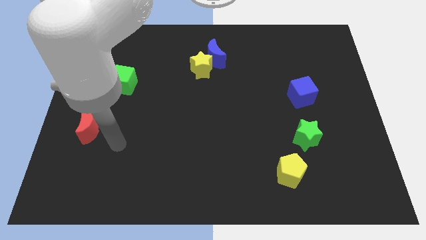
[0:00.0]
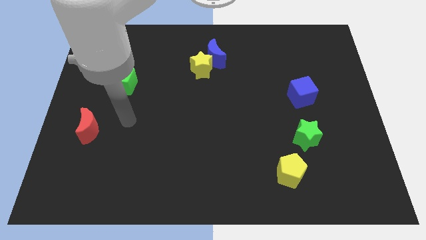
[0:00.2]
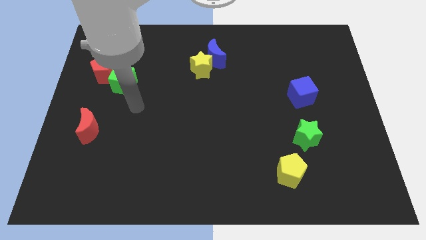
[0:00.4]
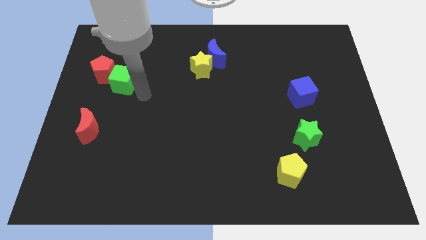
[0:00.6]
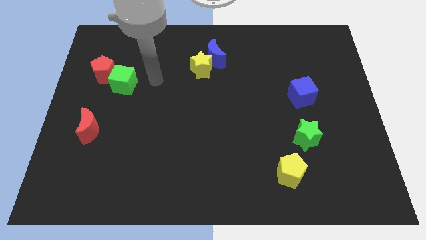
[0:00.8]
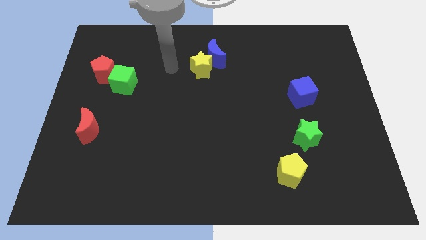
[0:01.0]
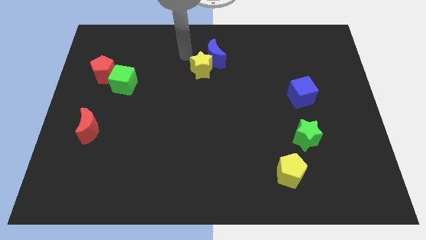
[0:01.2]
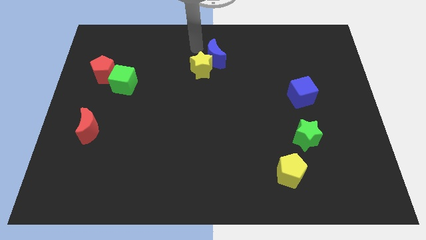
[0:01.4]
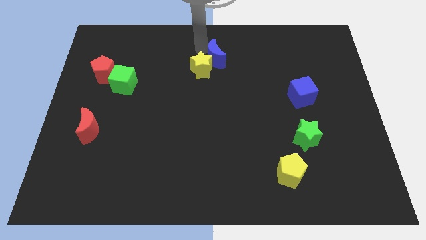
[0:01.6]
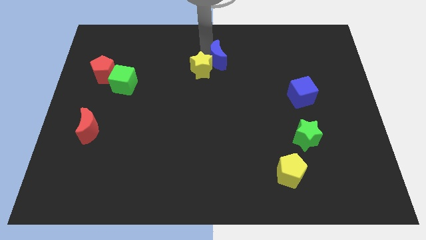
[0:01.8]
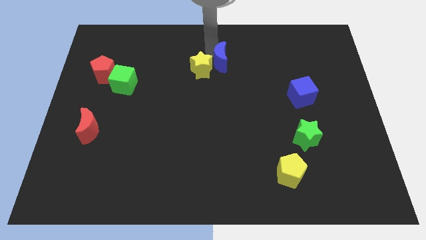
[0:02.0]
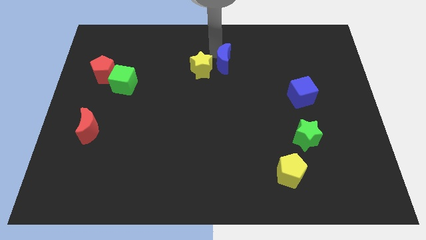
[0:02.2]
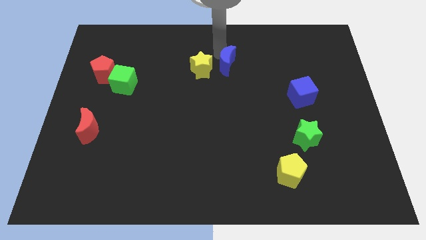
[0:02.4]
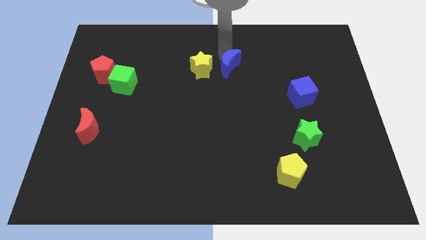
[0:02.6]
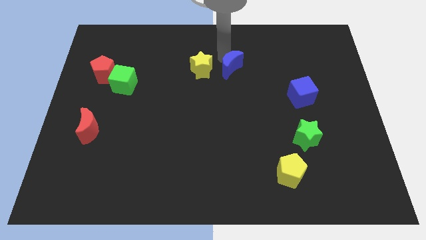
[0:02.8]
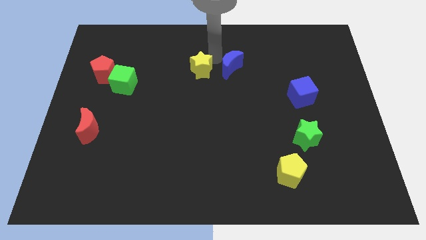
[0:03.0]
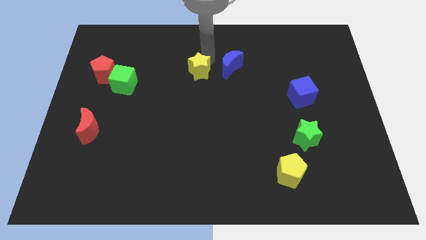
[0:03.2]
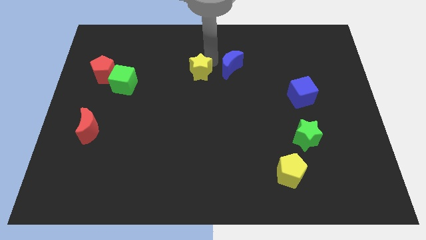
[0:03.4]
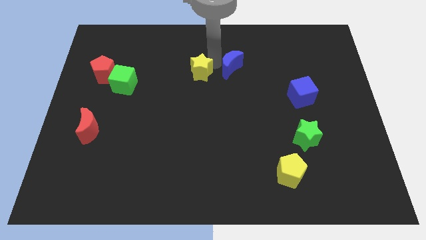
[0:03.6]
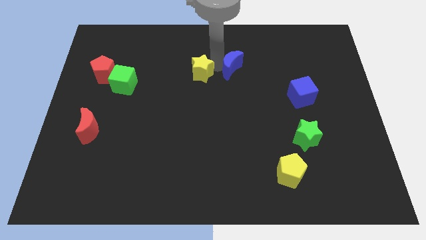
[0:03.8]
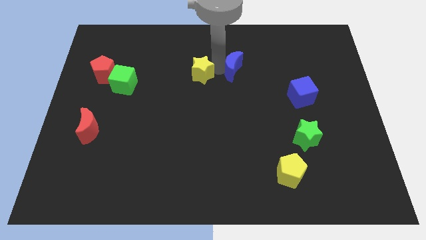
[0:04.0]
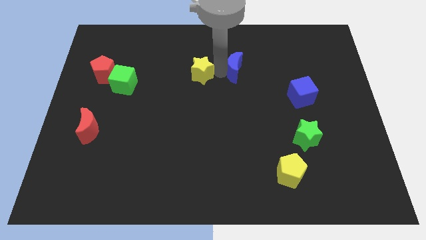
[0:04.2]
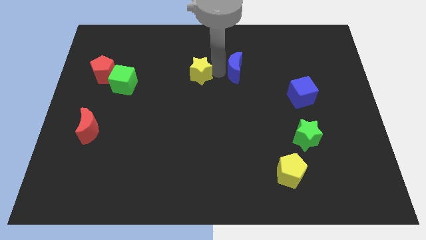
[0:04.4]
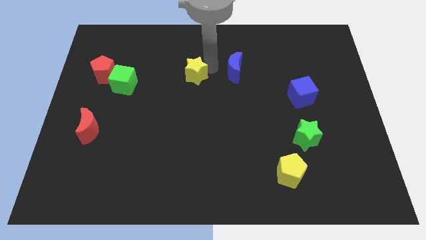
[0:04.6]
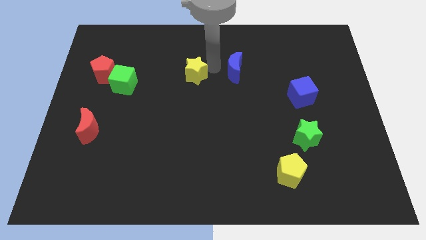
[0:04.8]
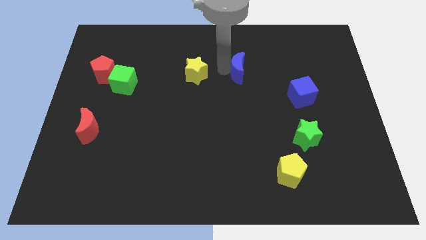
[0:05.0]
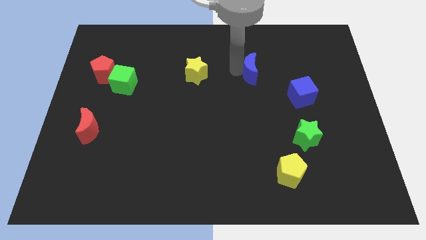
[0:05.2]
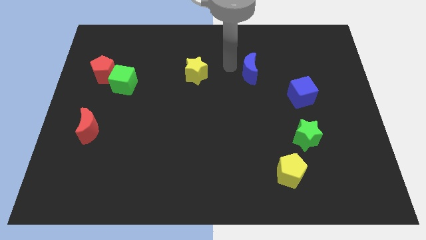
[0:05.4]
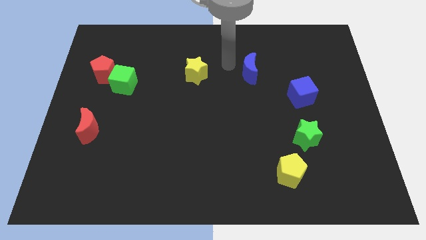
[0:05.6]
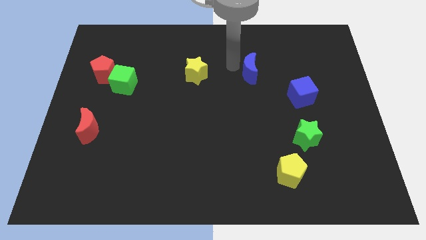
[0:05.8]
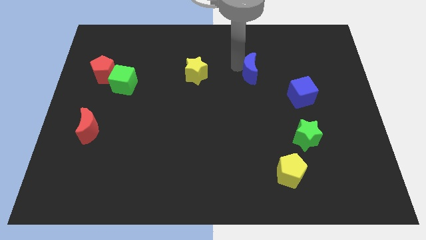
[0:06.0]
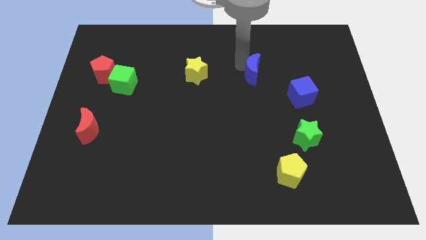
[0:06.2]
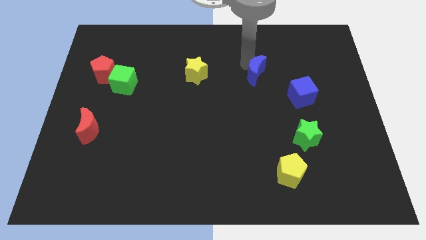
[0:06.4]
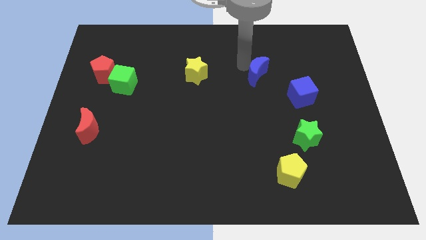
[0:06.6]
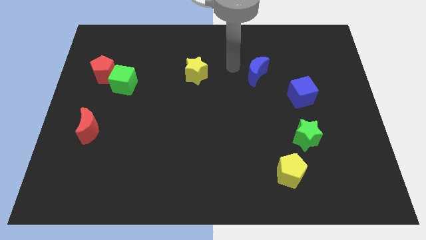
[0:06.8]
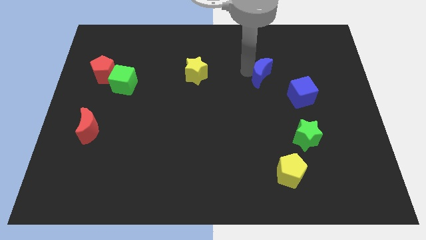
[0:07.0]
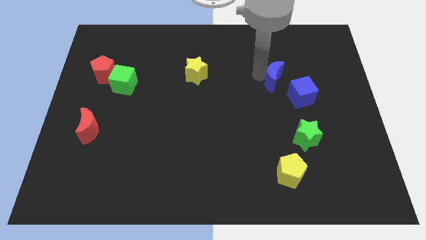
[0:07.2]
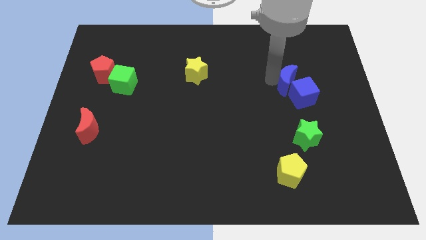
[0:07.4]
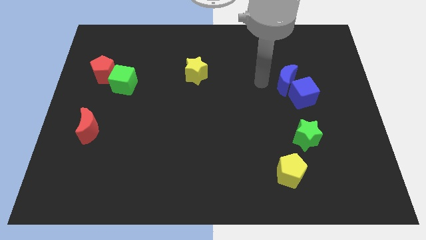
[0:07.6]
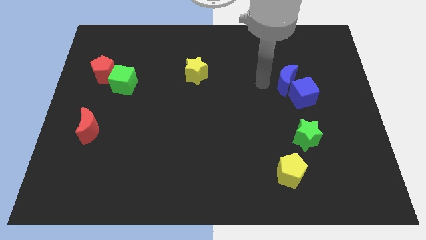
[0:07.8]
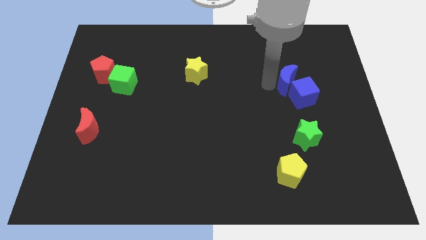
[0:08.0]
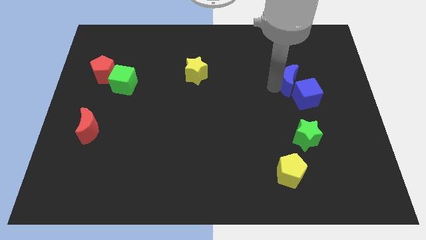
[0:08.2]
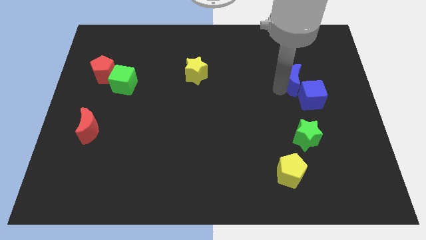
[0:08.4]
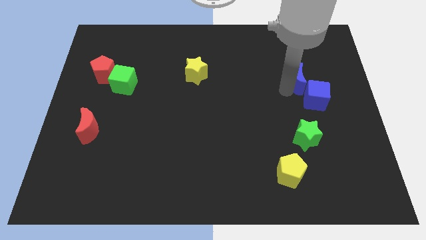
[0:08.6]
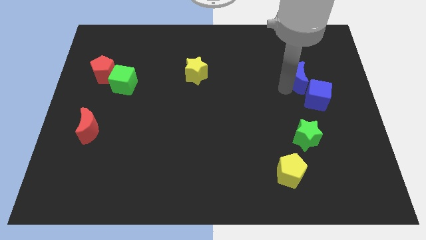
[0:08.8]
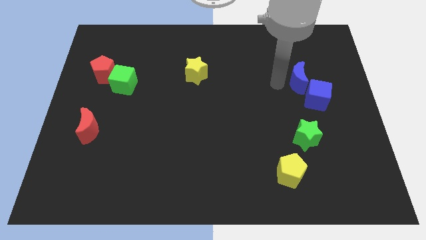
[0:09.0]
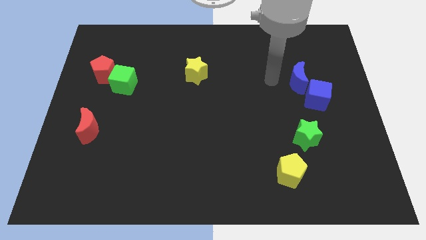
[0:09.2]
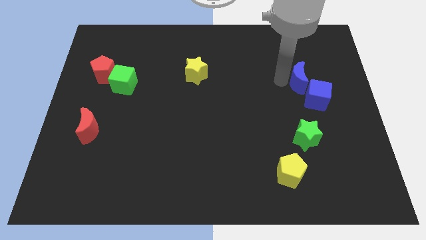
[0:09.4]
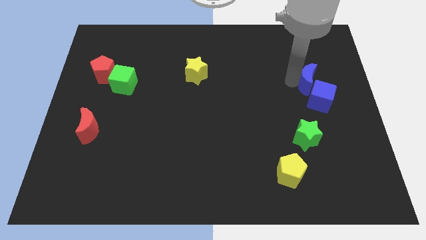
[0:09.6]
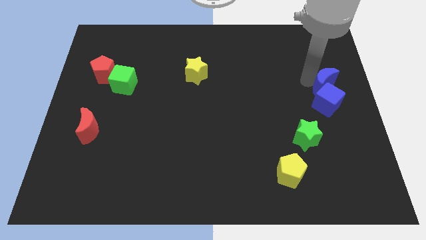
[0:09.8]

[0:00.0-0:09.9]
push the blue moon to the right side

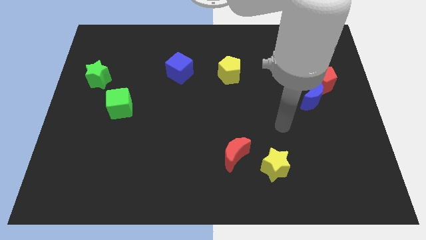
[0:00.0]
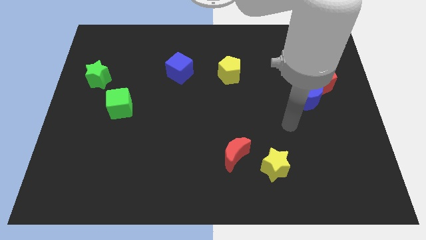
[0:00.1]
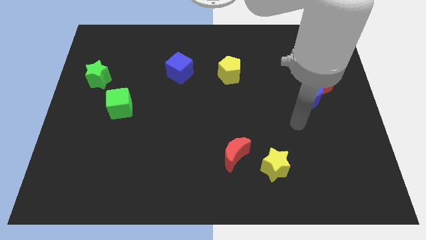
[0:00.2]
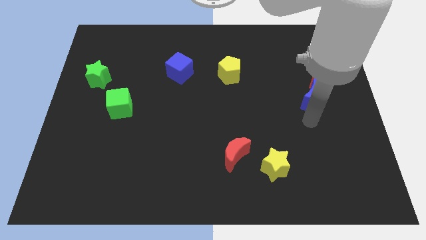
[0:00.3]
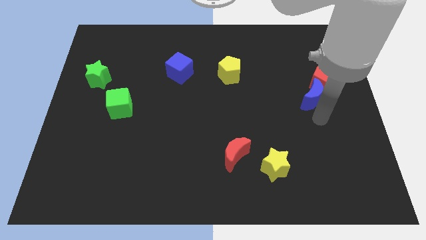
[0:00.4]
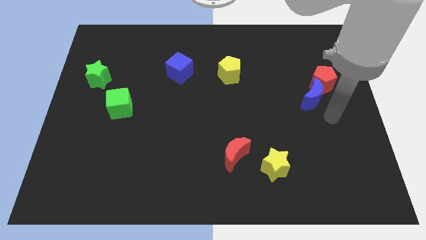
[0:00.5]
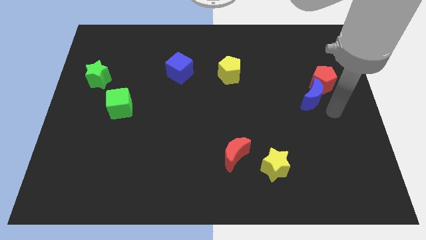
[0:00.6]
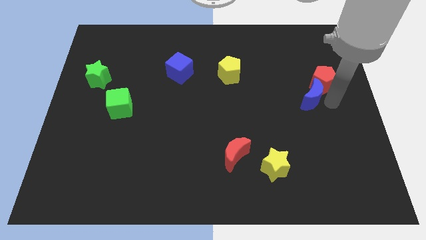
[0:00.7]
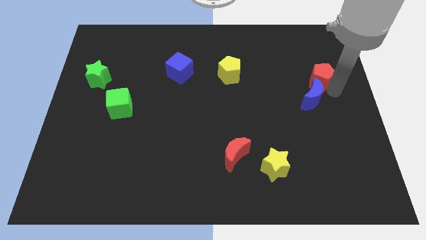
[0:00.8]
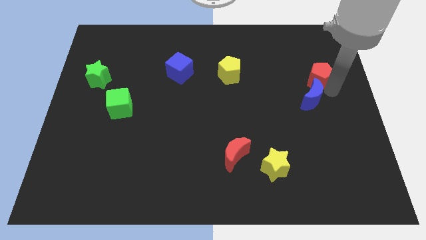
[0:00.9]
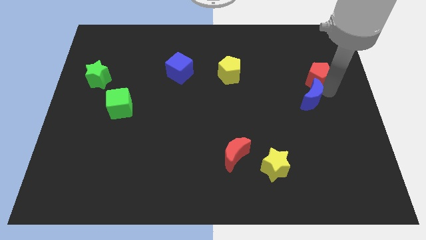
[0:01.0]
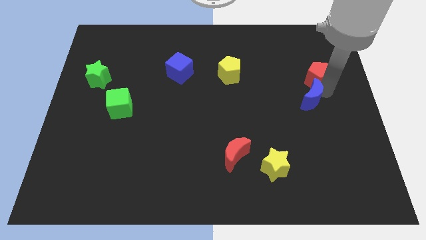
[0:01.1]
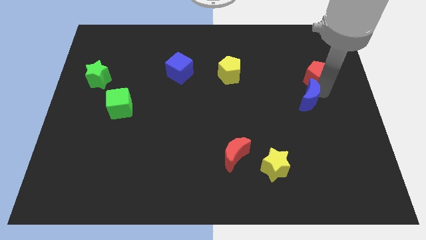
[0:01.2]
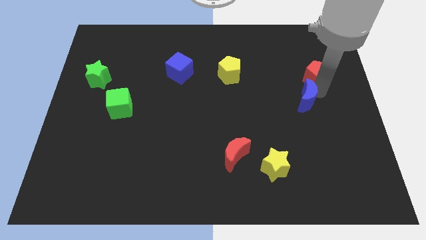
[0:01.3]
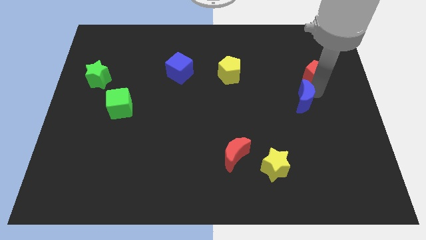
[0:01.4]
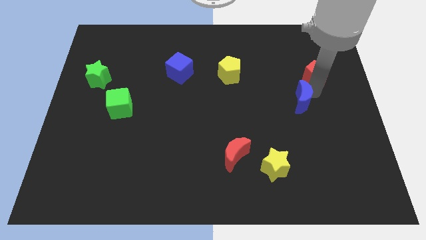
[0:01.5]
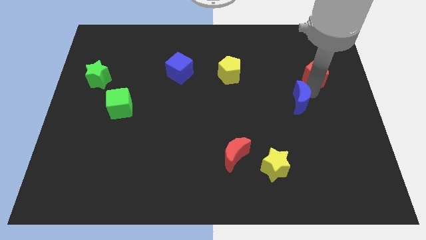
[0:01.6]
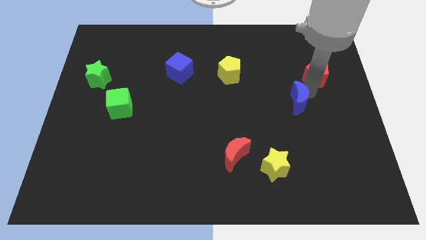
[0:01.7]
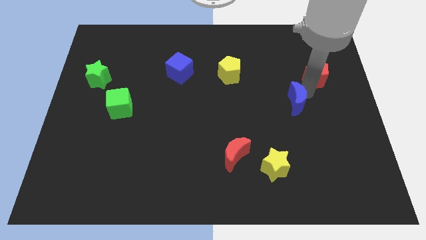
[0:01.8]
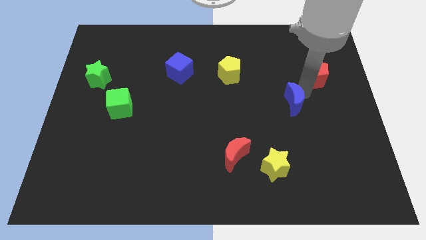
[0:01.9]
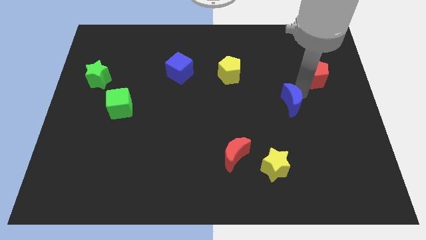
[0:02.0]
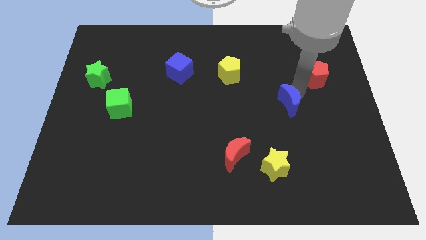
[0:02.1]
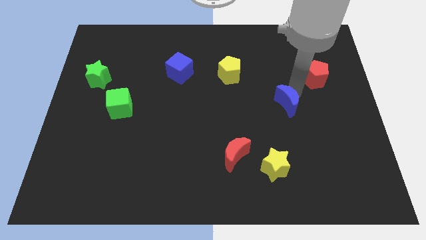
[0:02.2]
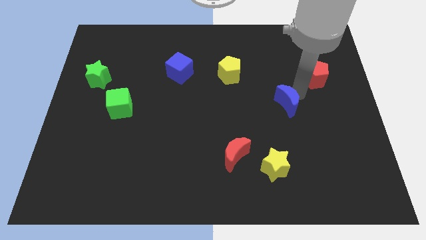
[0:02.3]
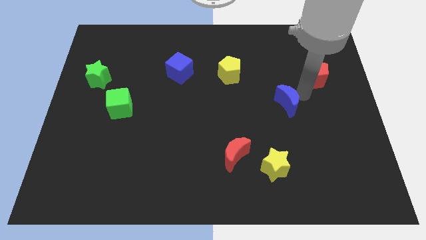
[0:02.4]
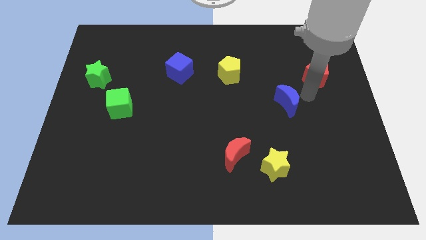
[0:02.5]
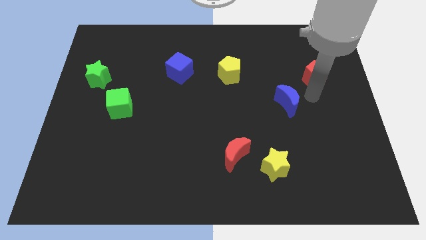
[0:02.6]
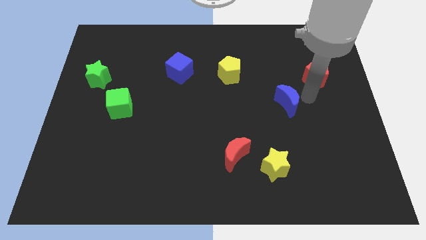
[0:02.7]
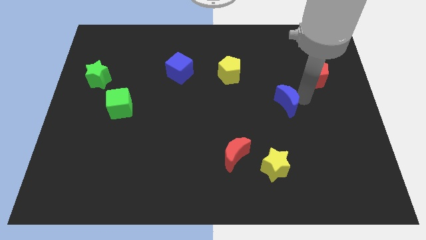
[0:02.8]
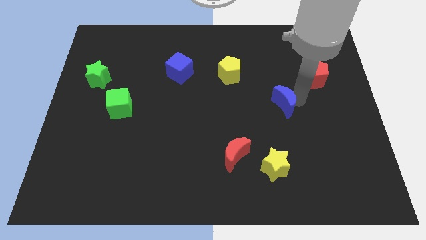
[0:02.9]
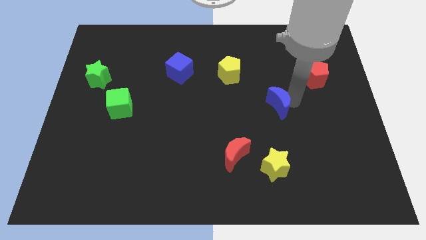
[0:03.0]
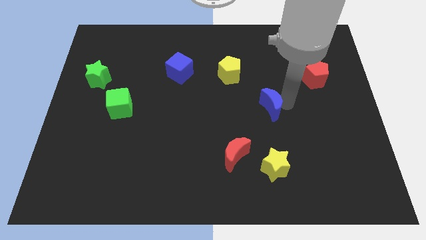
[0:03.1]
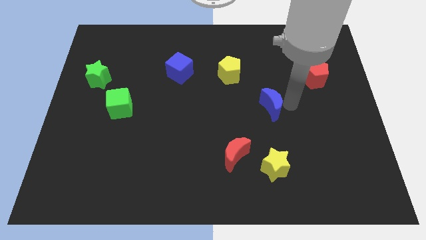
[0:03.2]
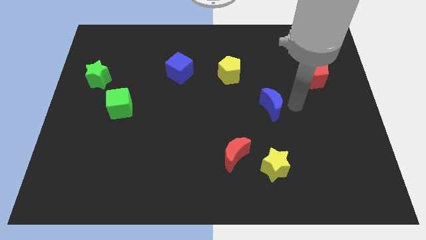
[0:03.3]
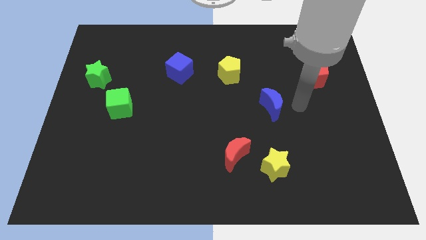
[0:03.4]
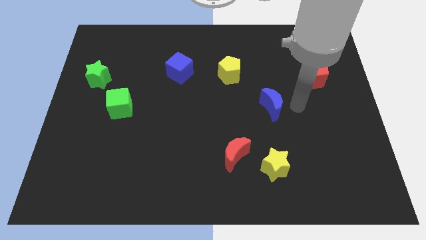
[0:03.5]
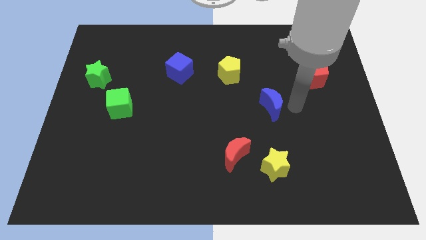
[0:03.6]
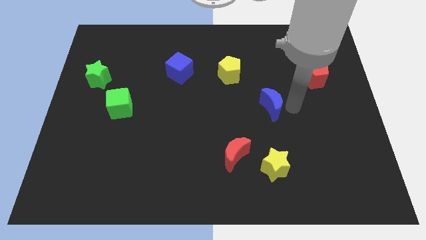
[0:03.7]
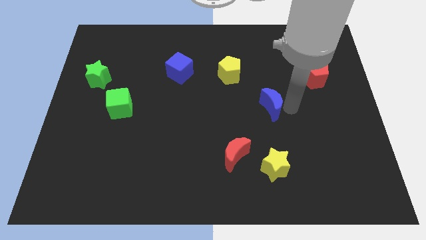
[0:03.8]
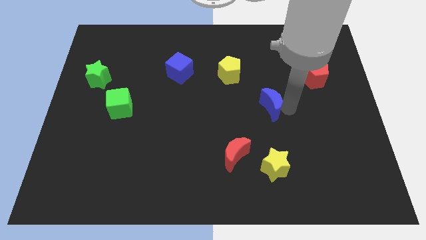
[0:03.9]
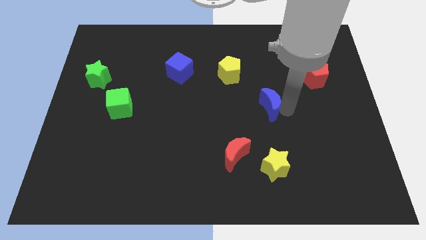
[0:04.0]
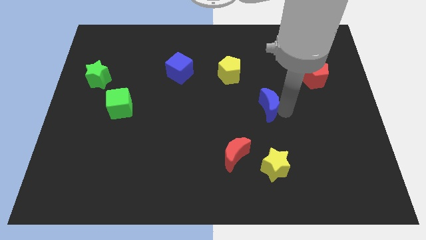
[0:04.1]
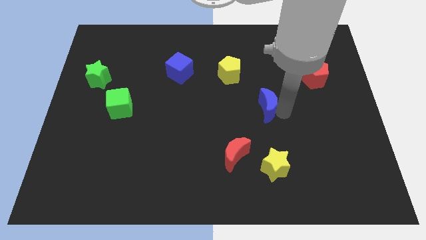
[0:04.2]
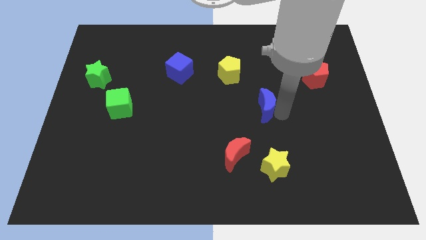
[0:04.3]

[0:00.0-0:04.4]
slide the blue moon to the middle
